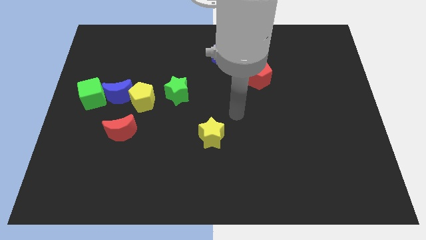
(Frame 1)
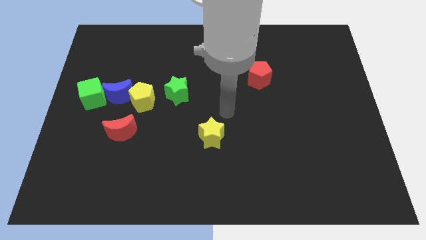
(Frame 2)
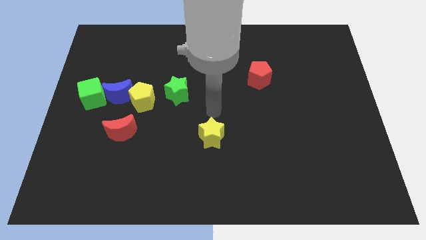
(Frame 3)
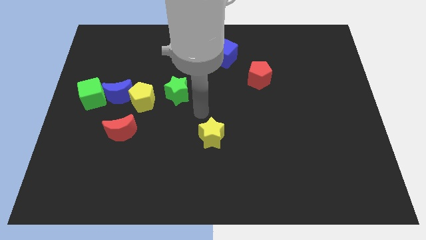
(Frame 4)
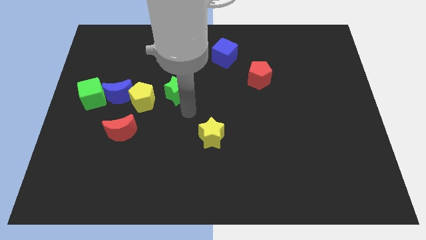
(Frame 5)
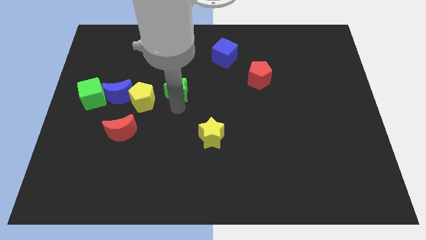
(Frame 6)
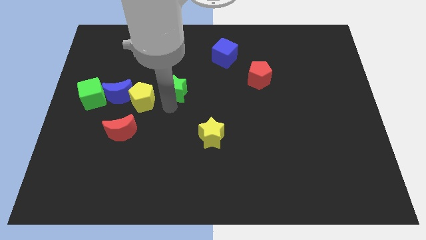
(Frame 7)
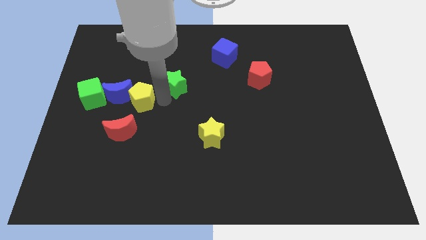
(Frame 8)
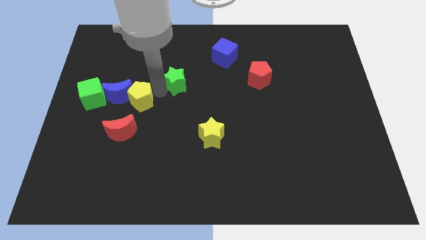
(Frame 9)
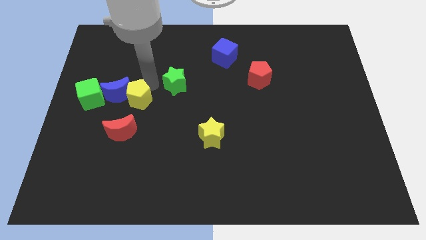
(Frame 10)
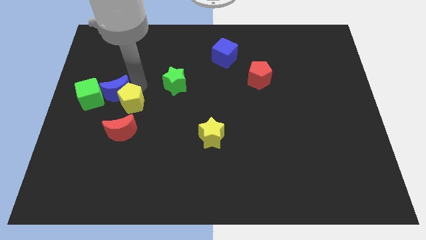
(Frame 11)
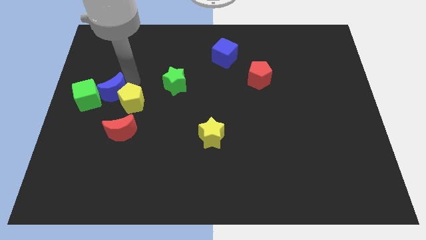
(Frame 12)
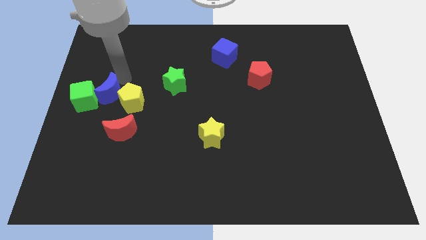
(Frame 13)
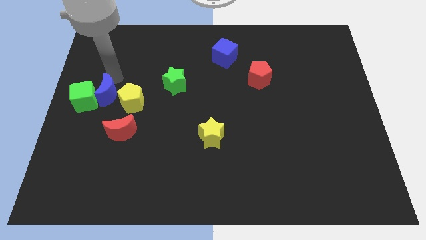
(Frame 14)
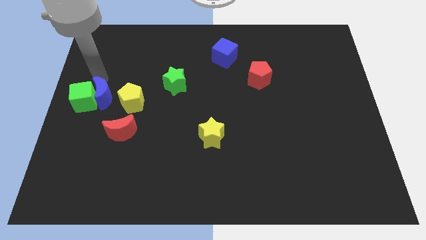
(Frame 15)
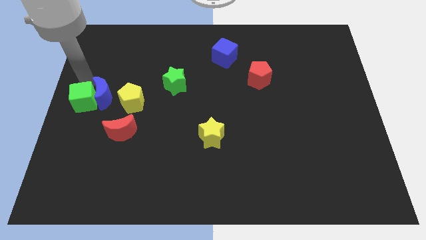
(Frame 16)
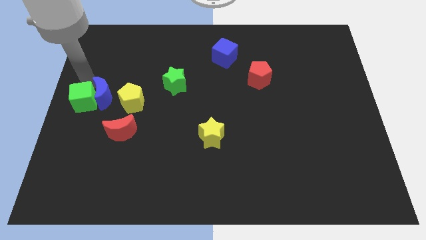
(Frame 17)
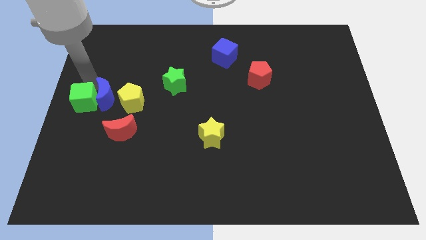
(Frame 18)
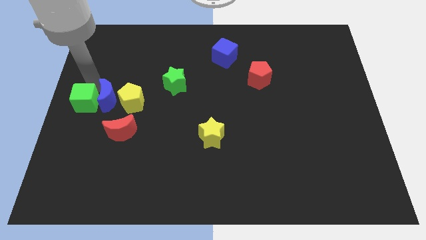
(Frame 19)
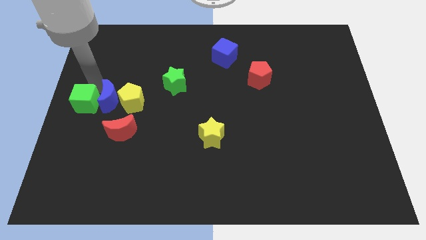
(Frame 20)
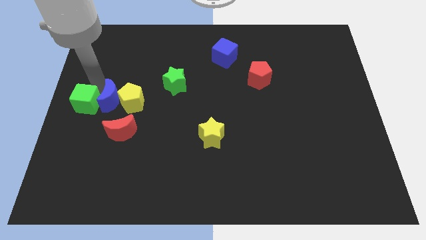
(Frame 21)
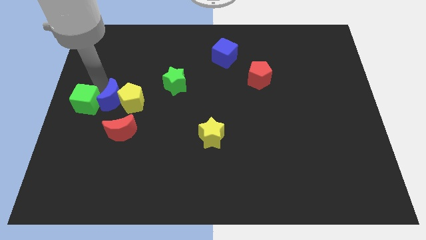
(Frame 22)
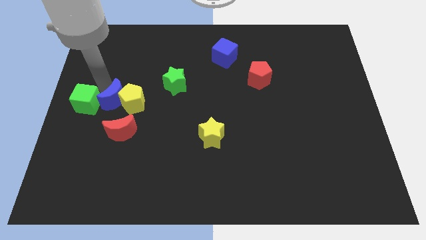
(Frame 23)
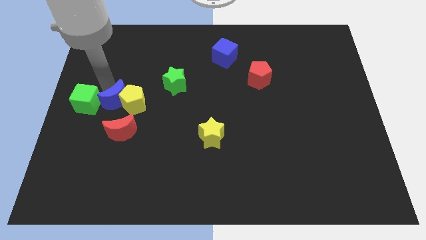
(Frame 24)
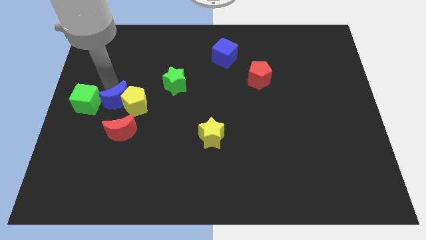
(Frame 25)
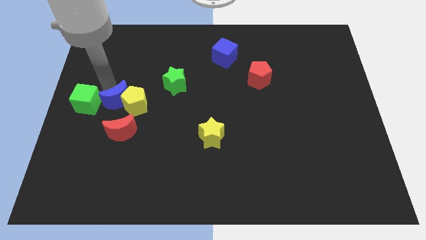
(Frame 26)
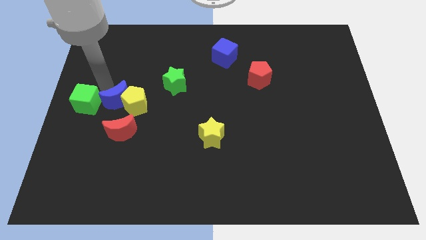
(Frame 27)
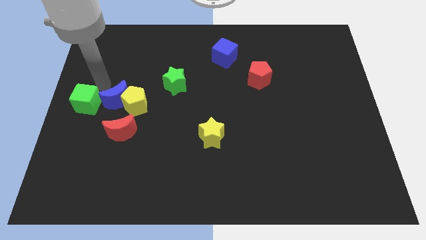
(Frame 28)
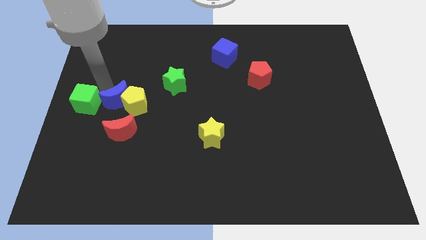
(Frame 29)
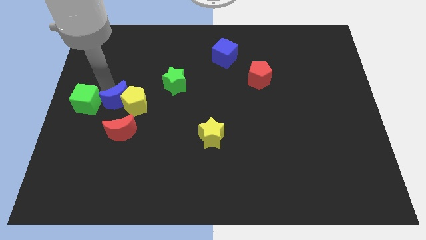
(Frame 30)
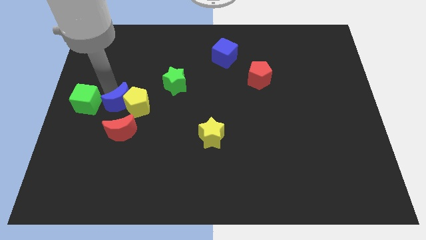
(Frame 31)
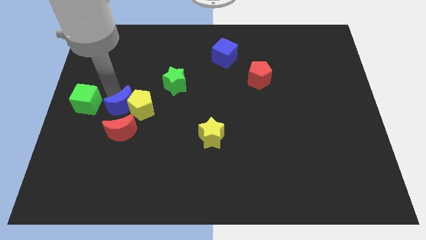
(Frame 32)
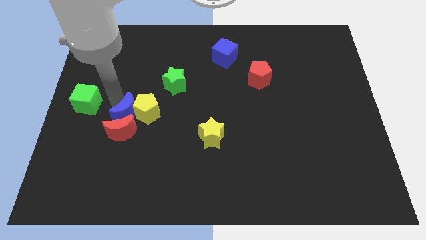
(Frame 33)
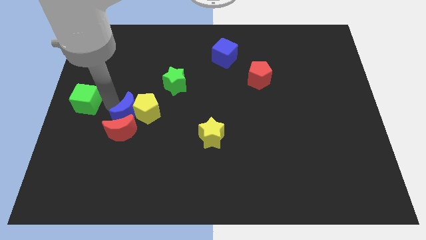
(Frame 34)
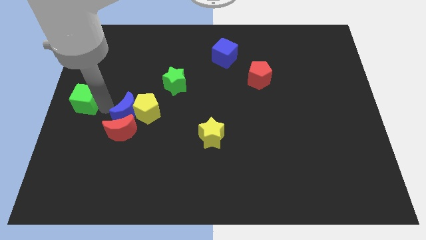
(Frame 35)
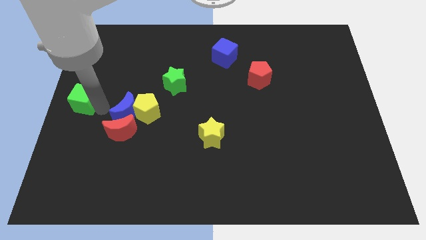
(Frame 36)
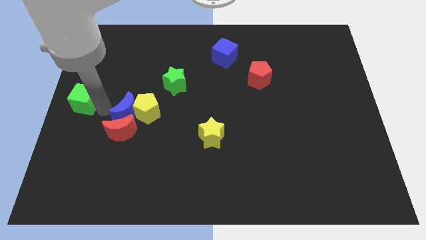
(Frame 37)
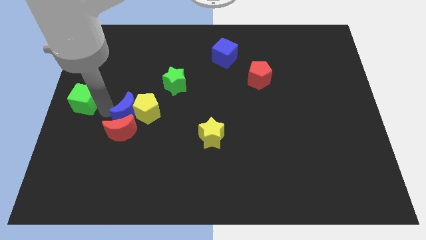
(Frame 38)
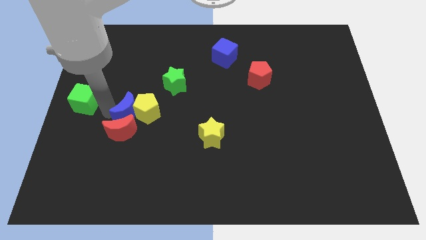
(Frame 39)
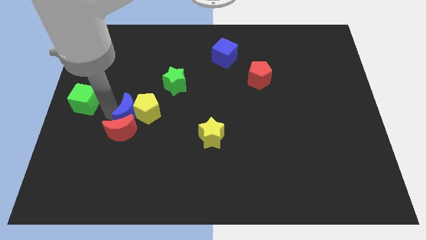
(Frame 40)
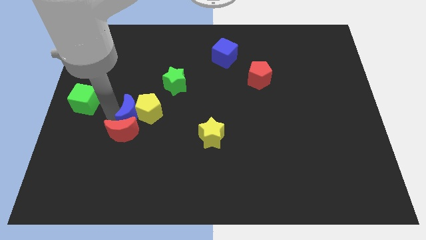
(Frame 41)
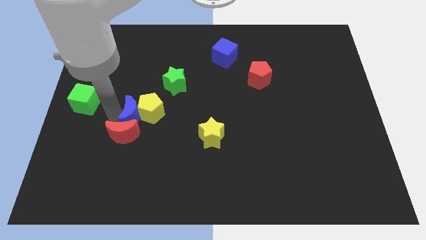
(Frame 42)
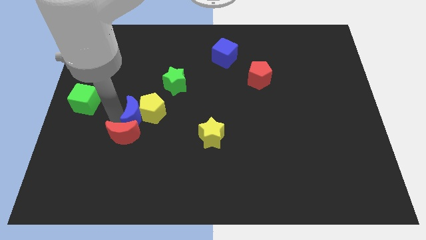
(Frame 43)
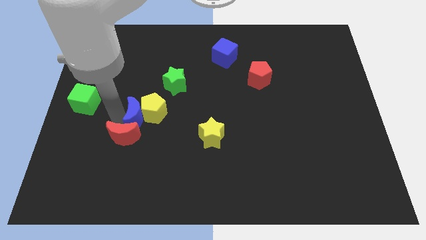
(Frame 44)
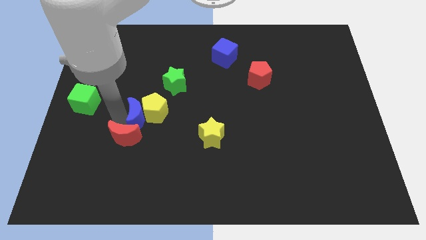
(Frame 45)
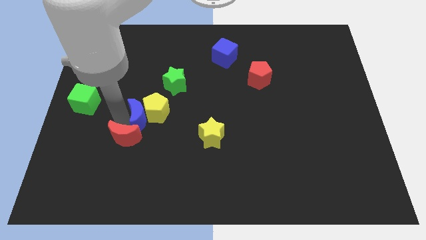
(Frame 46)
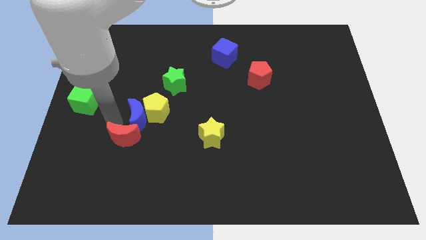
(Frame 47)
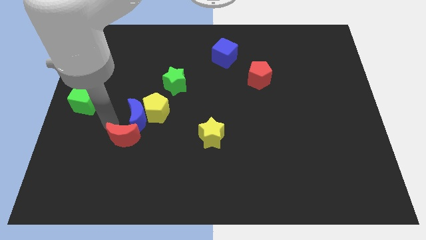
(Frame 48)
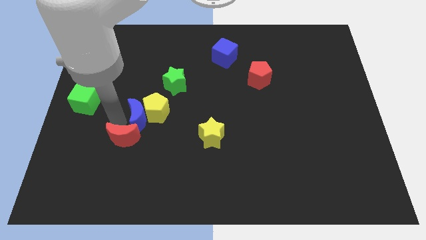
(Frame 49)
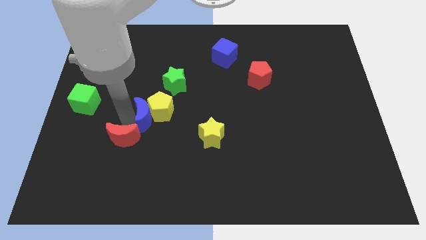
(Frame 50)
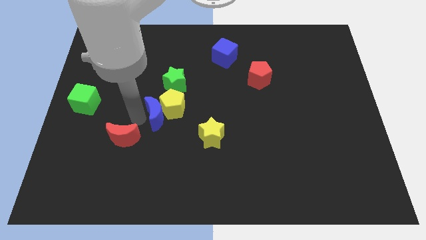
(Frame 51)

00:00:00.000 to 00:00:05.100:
slightly move the blue moon right

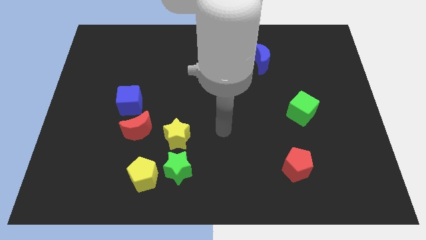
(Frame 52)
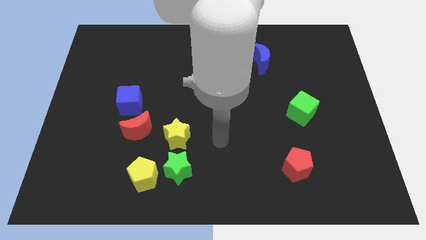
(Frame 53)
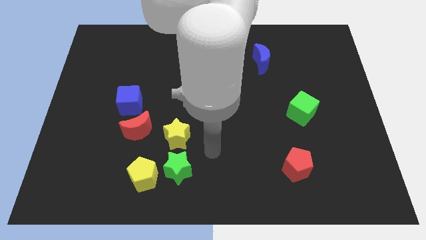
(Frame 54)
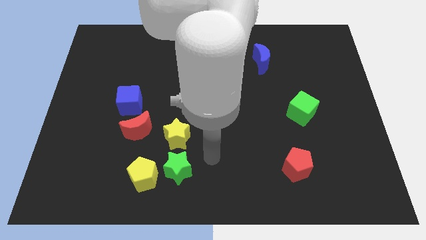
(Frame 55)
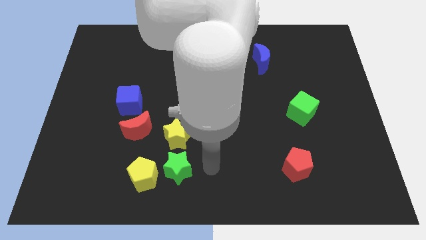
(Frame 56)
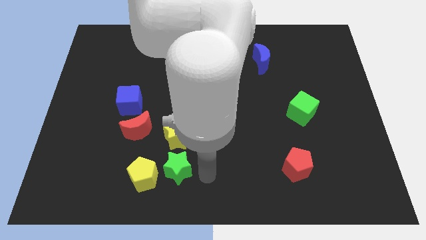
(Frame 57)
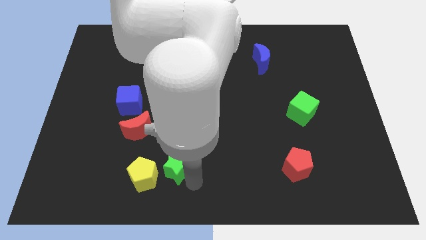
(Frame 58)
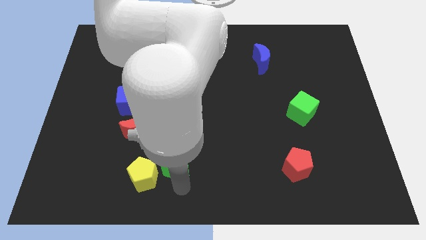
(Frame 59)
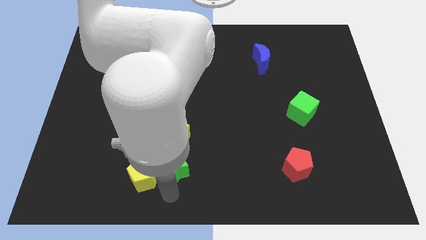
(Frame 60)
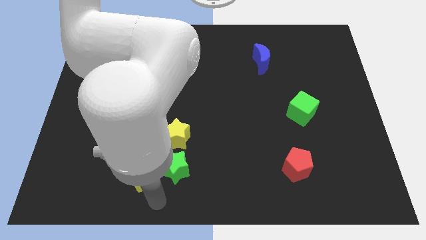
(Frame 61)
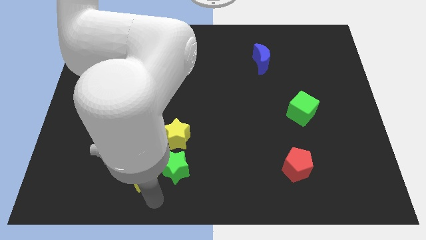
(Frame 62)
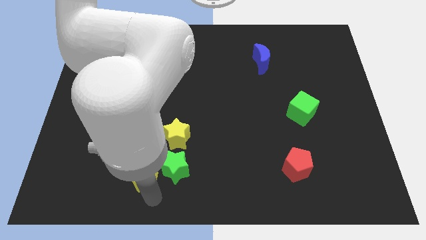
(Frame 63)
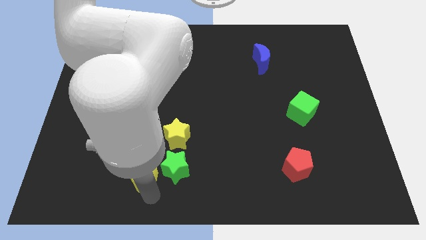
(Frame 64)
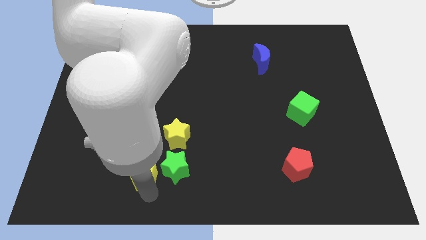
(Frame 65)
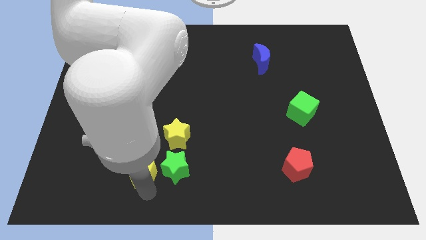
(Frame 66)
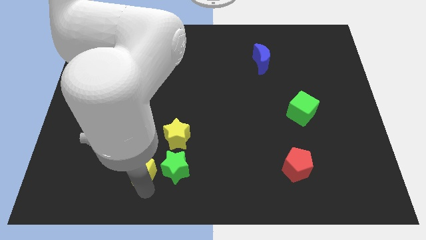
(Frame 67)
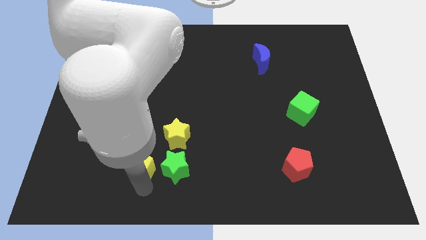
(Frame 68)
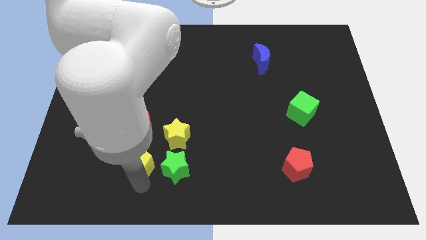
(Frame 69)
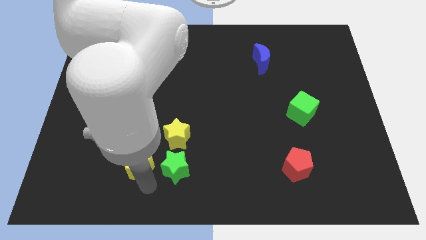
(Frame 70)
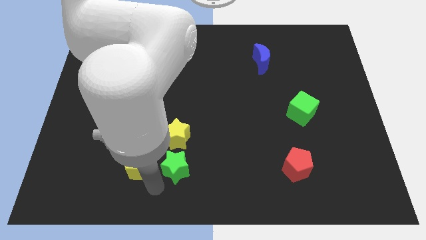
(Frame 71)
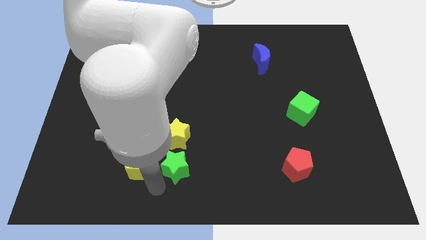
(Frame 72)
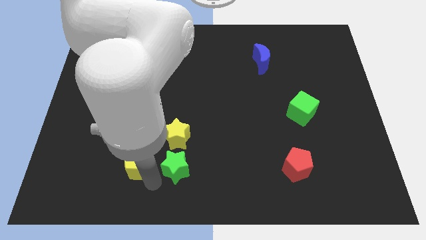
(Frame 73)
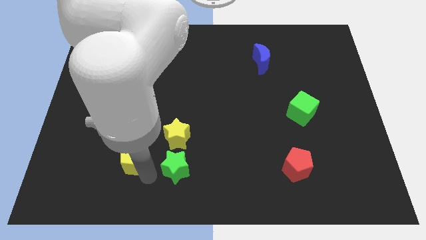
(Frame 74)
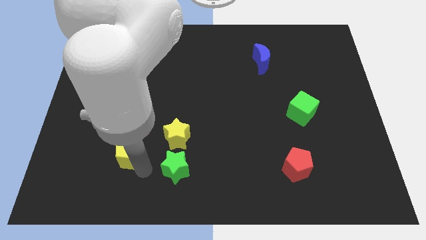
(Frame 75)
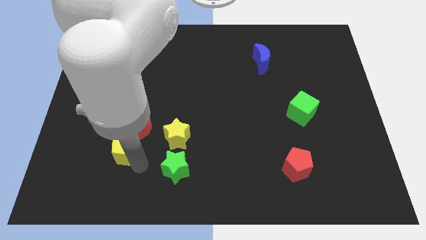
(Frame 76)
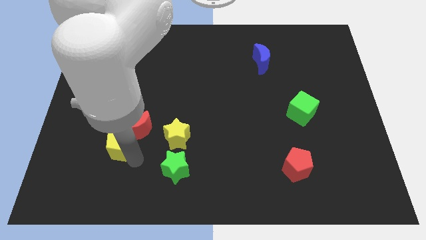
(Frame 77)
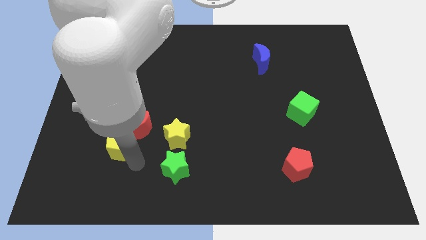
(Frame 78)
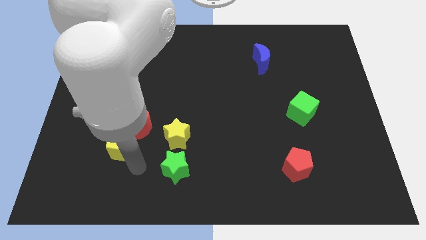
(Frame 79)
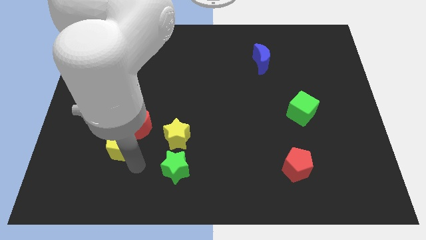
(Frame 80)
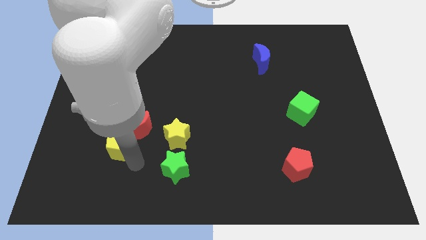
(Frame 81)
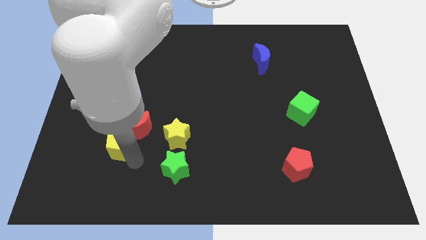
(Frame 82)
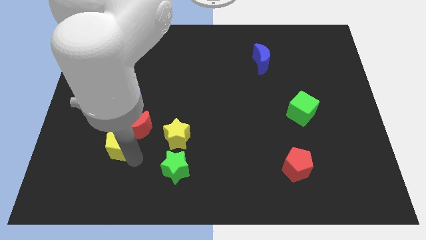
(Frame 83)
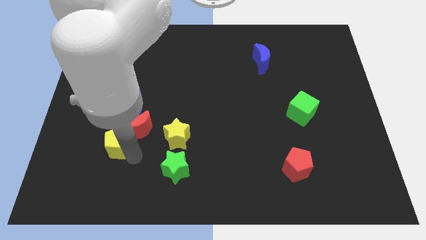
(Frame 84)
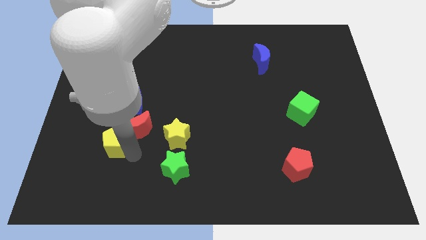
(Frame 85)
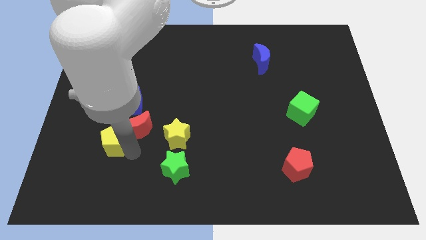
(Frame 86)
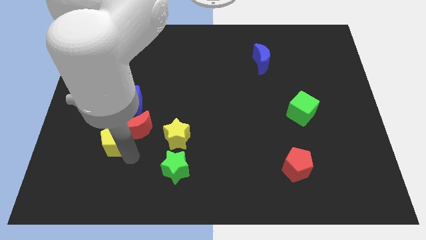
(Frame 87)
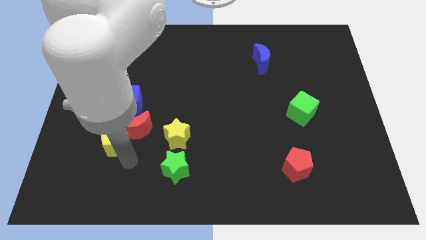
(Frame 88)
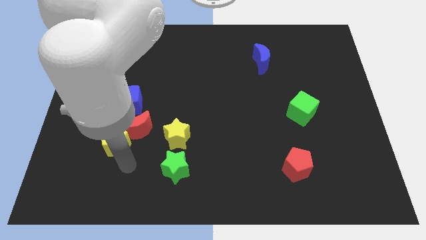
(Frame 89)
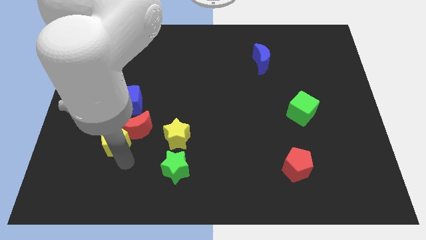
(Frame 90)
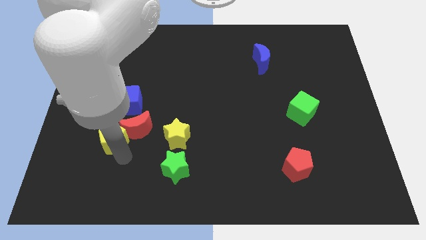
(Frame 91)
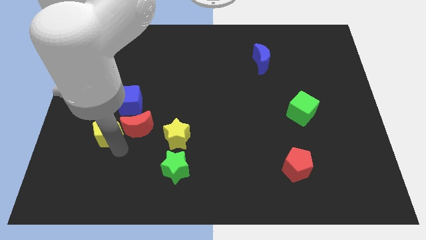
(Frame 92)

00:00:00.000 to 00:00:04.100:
slide the yellow pentagon up a little
